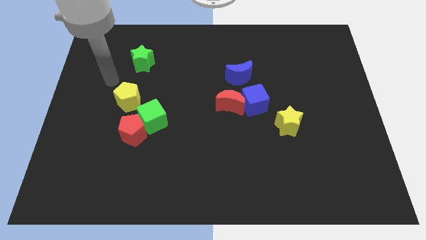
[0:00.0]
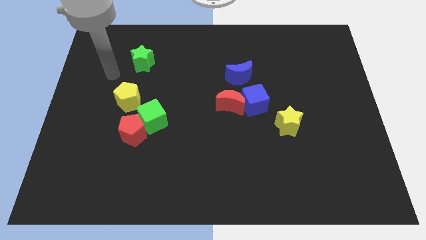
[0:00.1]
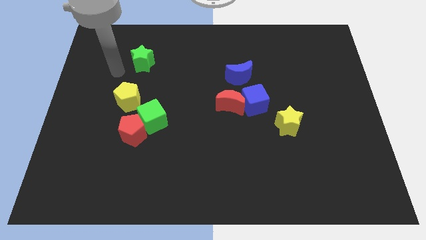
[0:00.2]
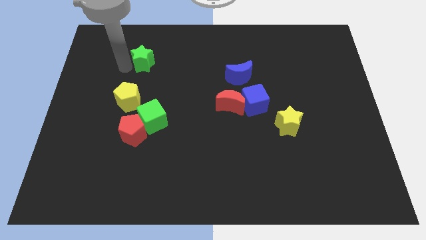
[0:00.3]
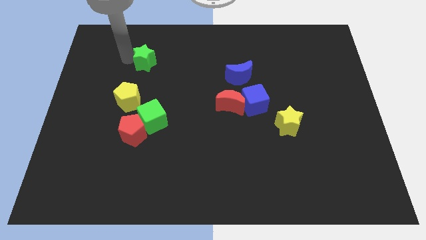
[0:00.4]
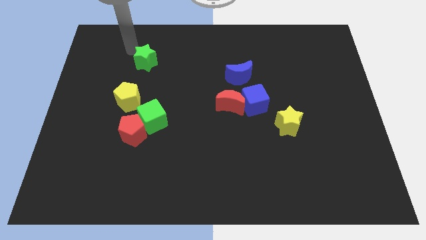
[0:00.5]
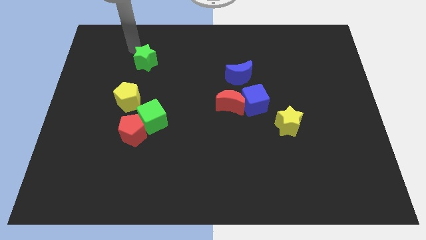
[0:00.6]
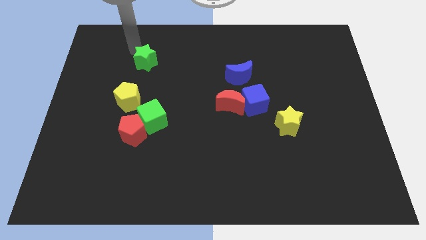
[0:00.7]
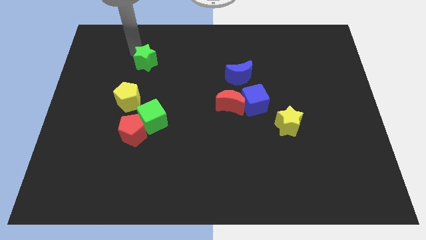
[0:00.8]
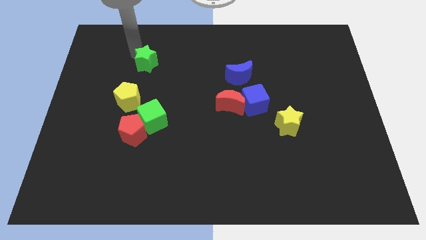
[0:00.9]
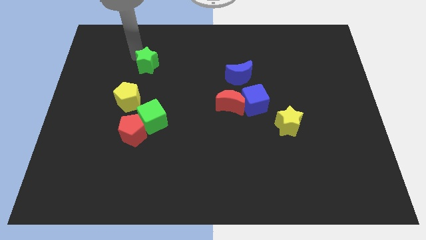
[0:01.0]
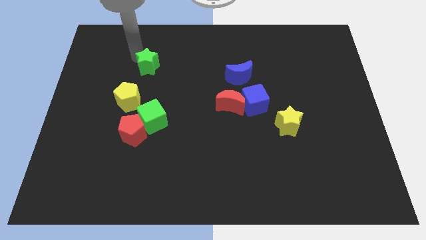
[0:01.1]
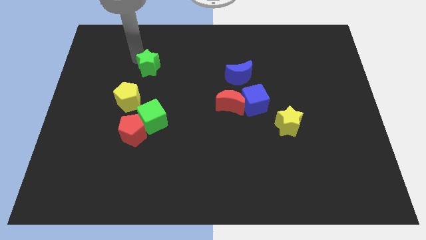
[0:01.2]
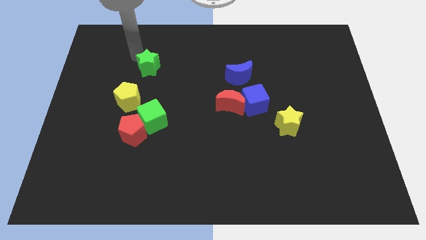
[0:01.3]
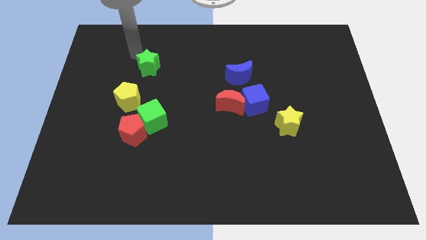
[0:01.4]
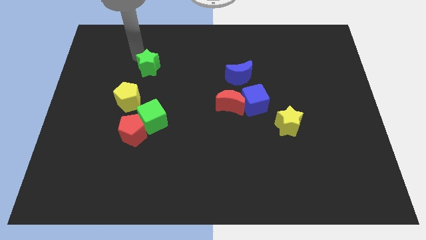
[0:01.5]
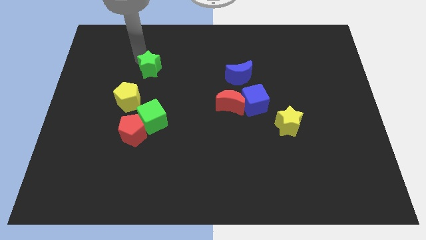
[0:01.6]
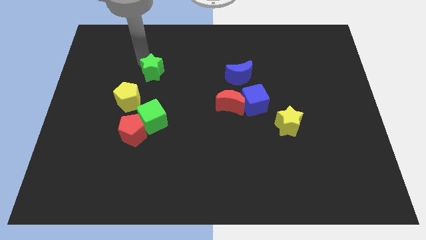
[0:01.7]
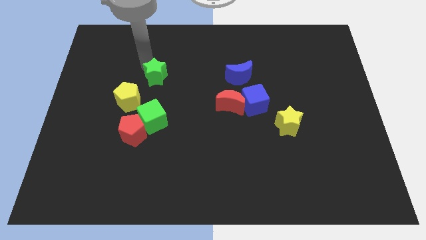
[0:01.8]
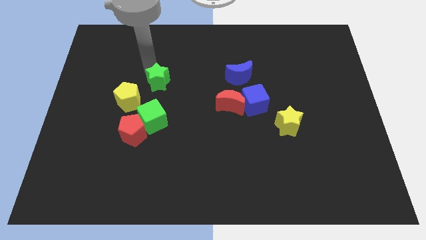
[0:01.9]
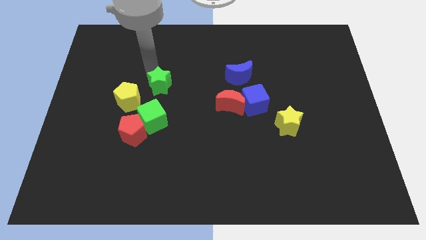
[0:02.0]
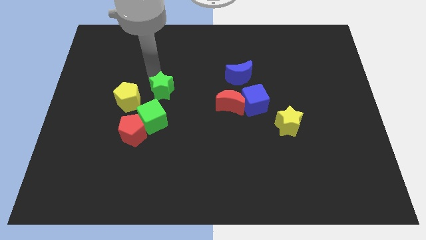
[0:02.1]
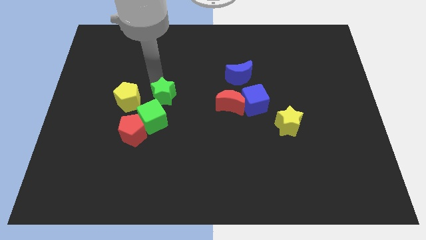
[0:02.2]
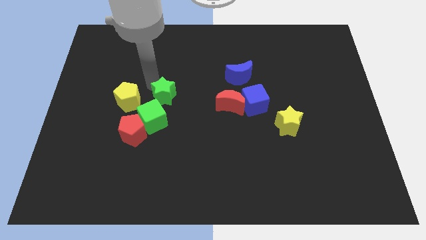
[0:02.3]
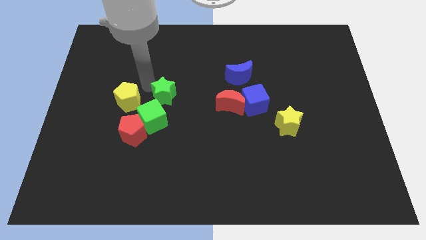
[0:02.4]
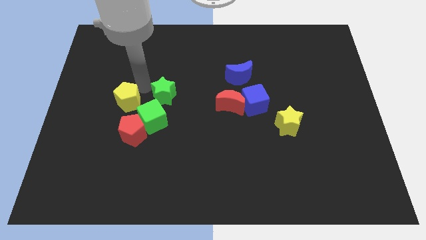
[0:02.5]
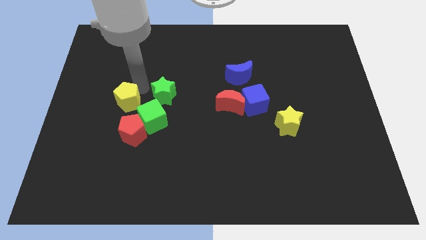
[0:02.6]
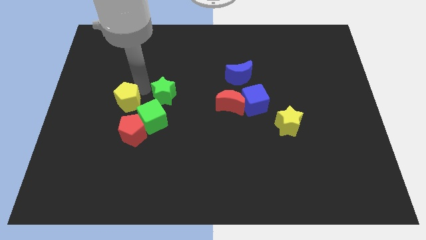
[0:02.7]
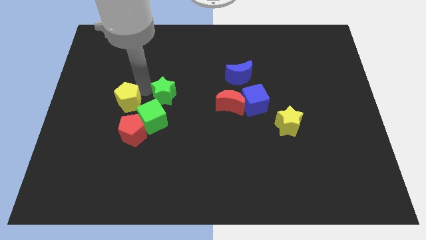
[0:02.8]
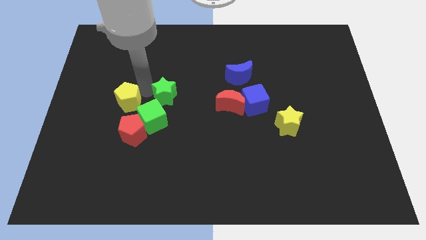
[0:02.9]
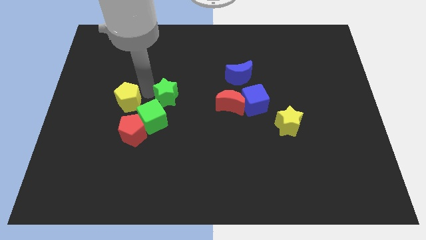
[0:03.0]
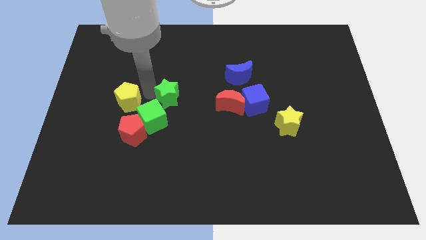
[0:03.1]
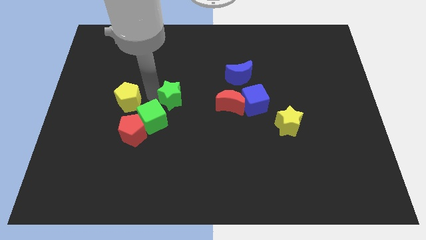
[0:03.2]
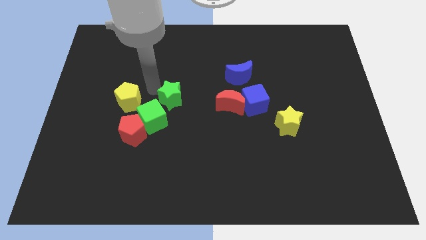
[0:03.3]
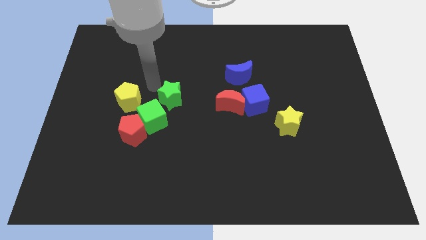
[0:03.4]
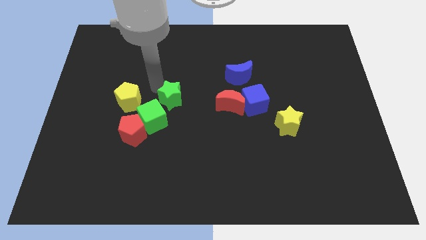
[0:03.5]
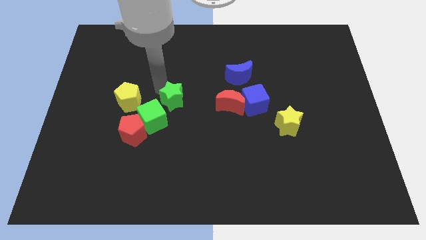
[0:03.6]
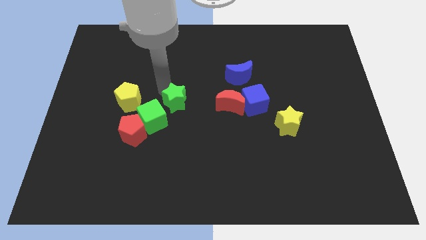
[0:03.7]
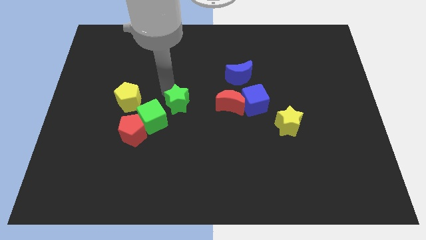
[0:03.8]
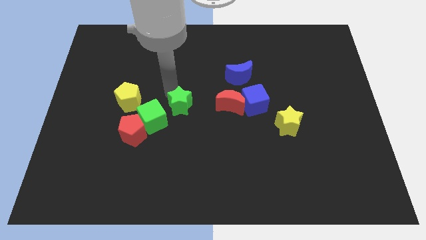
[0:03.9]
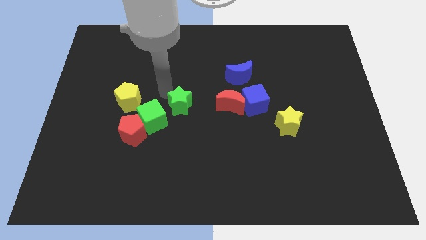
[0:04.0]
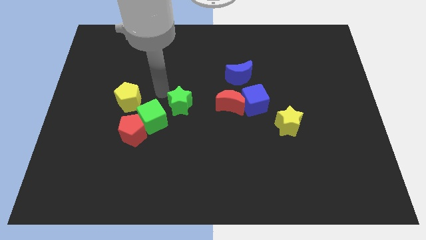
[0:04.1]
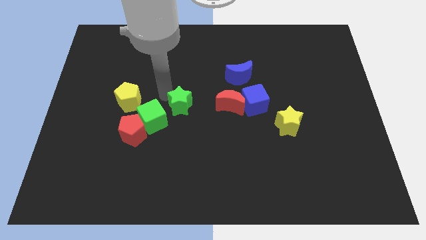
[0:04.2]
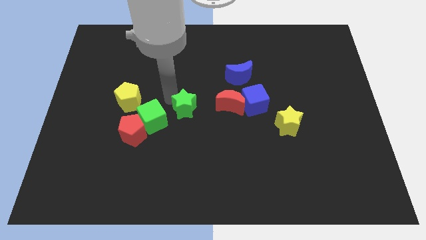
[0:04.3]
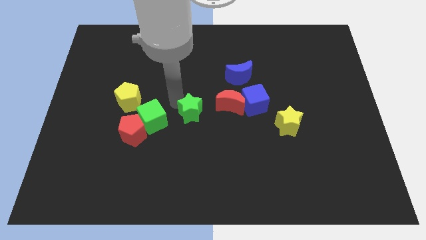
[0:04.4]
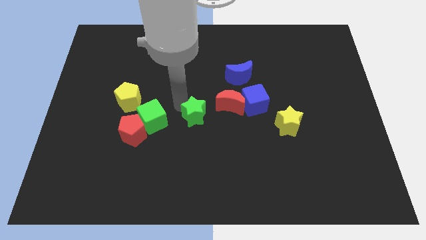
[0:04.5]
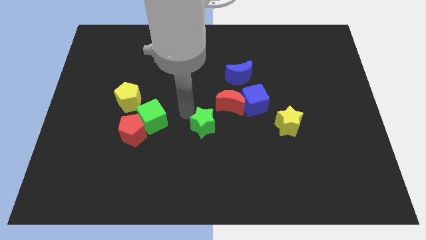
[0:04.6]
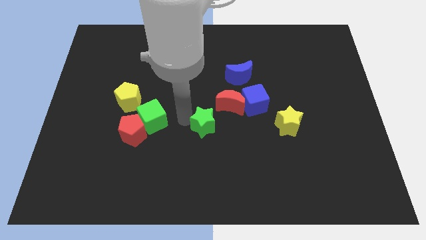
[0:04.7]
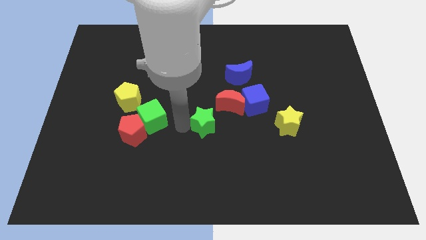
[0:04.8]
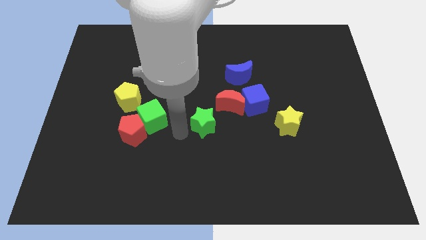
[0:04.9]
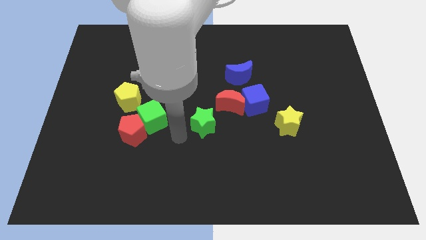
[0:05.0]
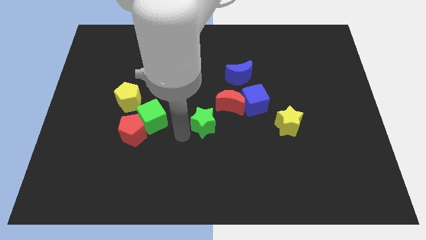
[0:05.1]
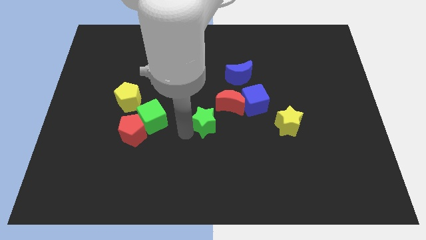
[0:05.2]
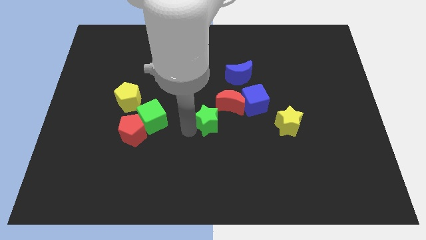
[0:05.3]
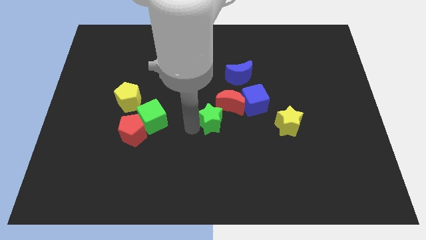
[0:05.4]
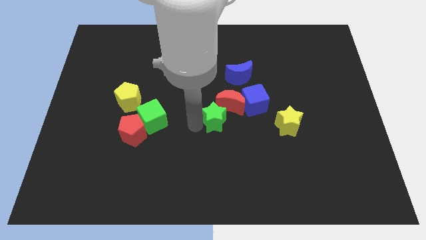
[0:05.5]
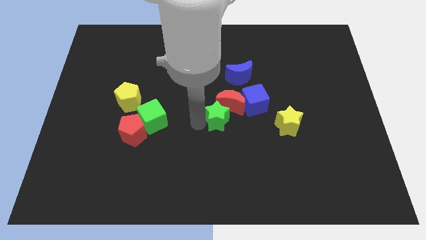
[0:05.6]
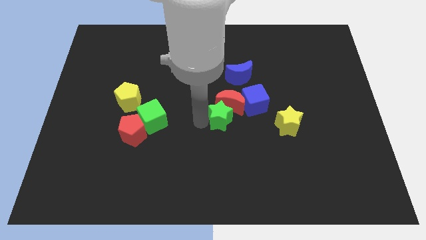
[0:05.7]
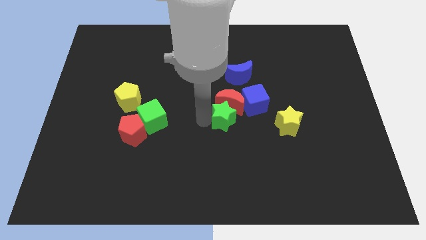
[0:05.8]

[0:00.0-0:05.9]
put the green star to the bottom of the blue moon

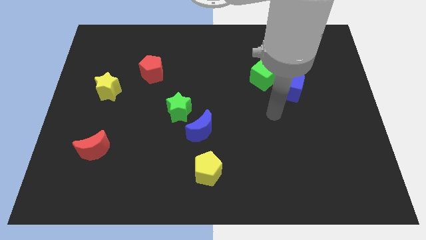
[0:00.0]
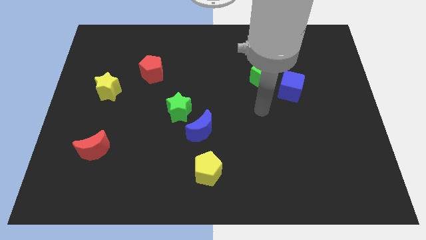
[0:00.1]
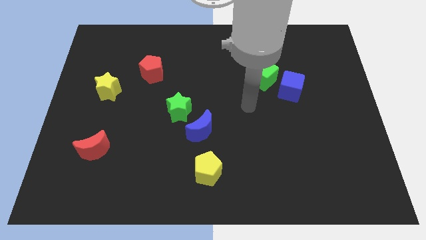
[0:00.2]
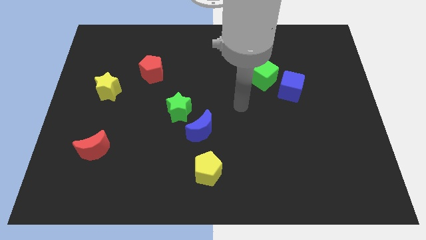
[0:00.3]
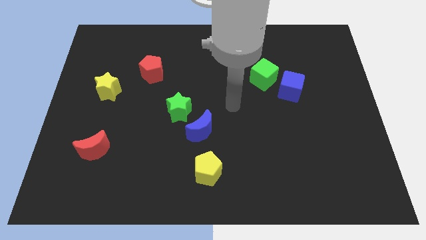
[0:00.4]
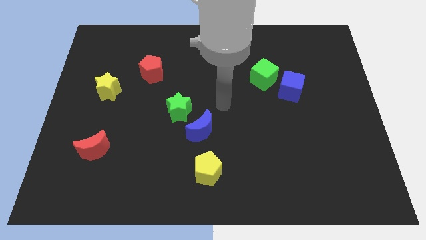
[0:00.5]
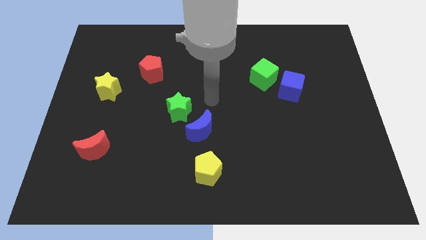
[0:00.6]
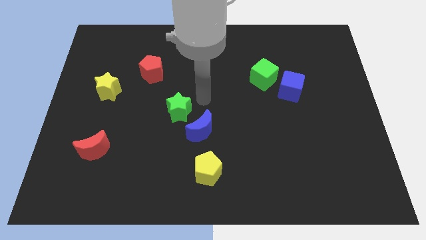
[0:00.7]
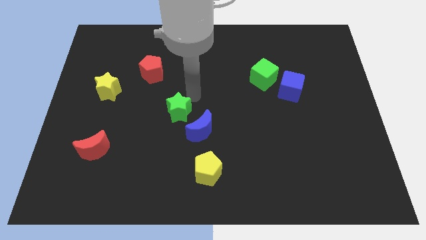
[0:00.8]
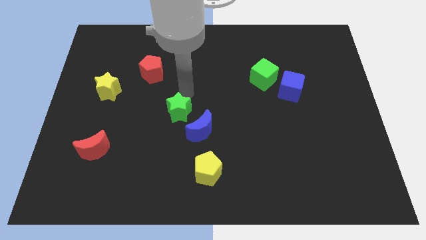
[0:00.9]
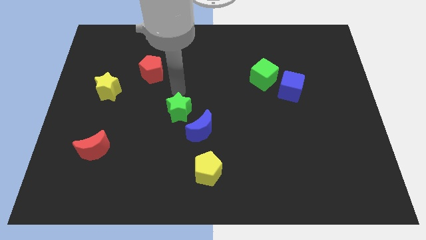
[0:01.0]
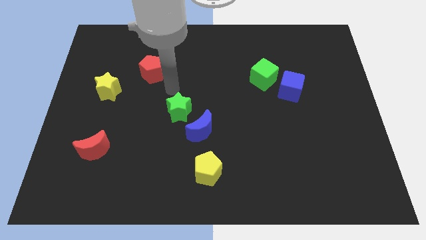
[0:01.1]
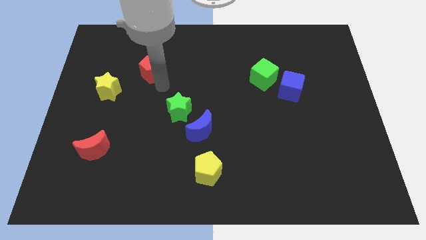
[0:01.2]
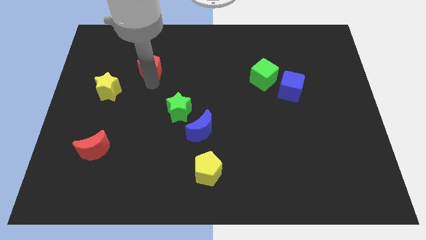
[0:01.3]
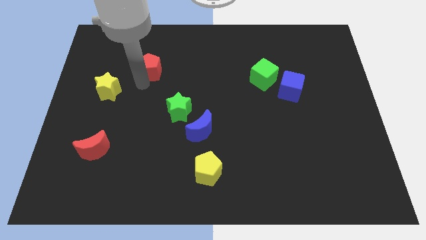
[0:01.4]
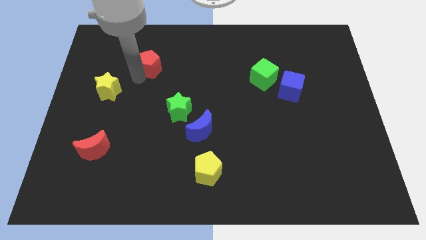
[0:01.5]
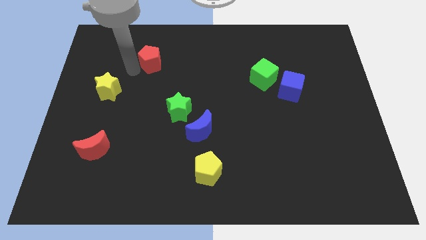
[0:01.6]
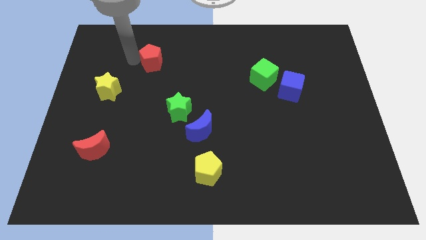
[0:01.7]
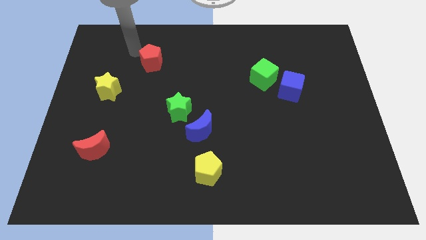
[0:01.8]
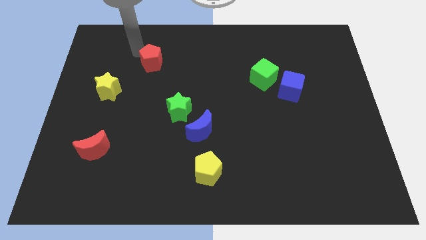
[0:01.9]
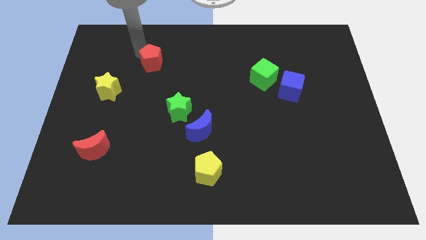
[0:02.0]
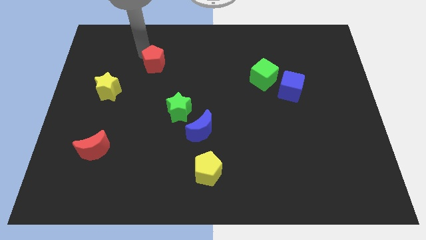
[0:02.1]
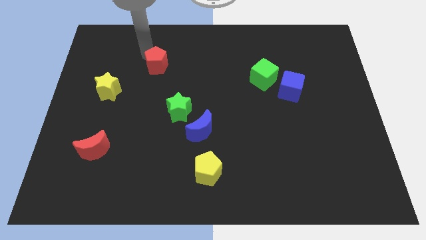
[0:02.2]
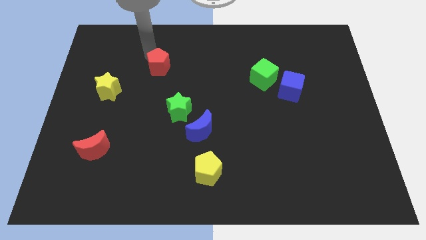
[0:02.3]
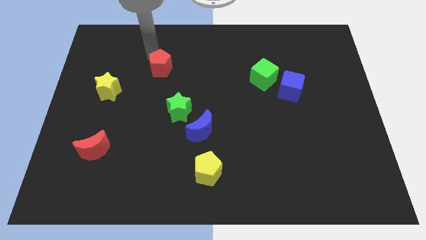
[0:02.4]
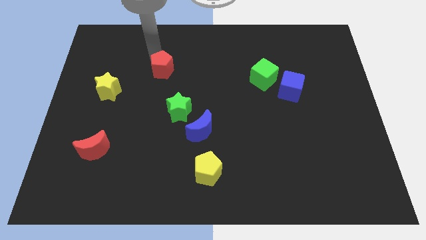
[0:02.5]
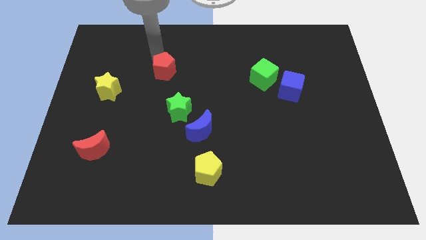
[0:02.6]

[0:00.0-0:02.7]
move the red pentagon to the top side of the green star
